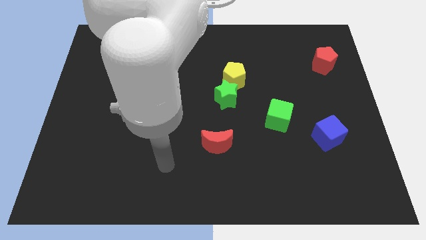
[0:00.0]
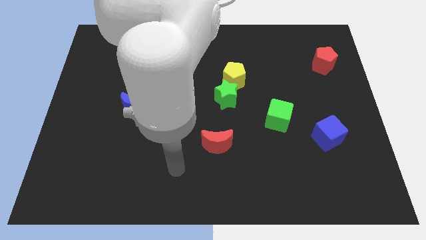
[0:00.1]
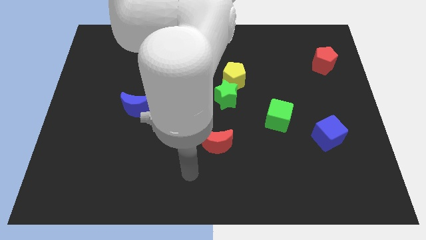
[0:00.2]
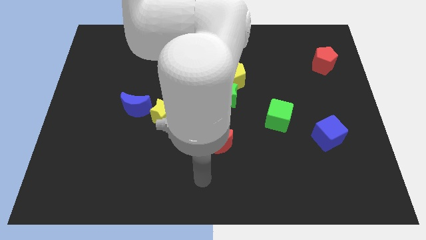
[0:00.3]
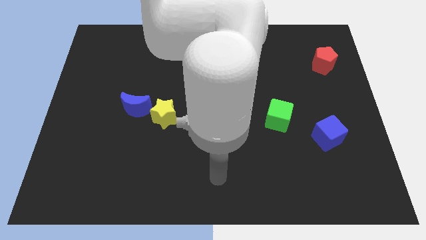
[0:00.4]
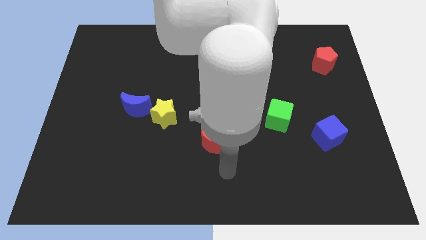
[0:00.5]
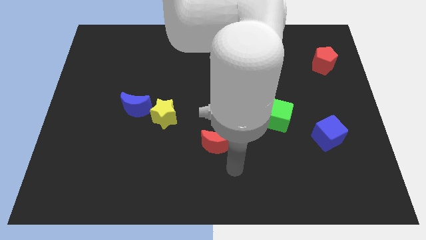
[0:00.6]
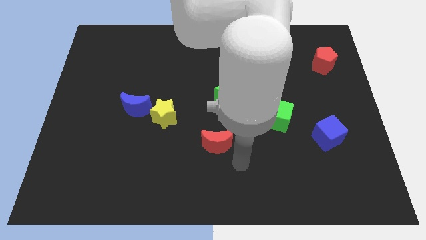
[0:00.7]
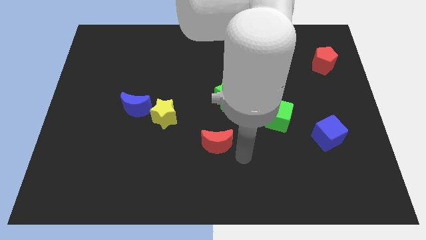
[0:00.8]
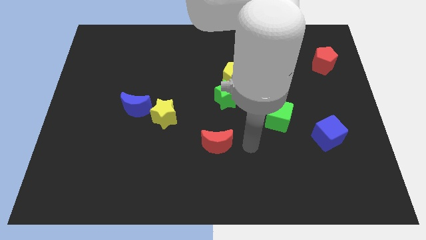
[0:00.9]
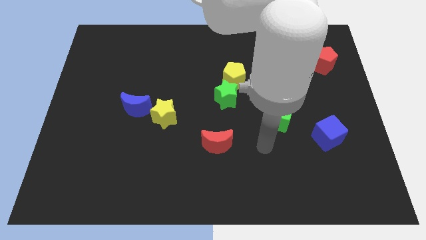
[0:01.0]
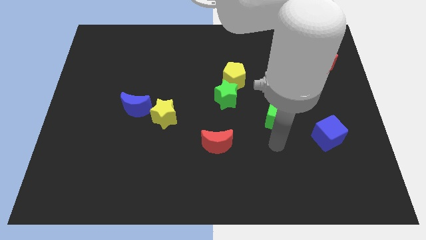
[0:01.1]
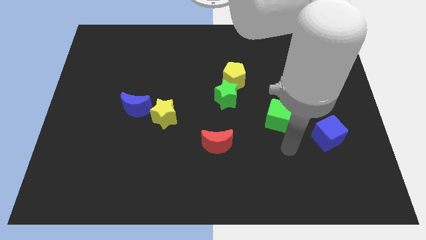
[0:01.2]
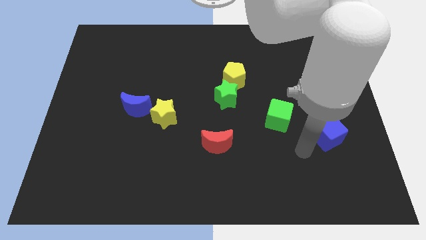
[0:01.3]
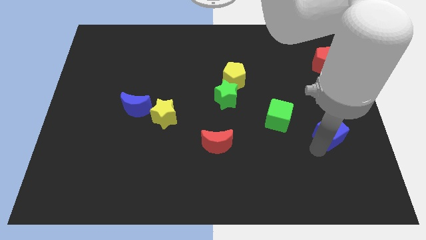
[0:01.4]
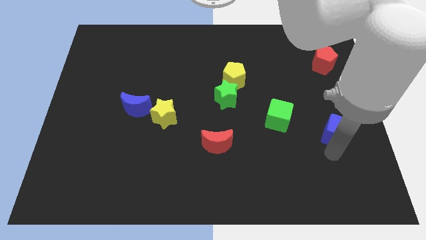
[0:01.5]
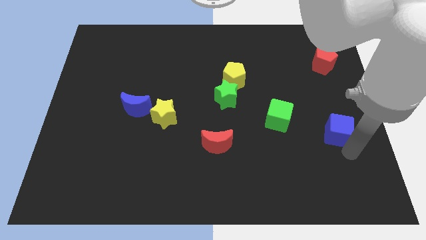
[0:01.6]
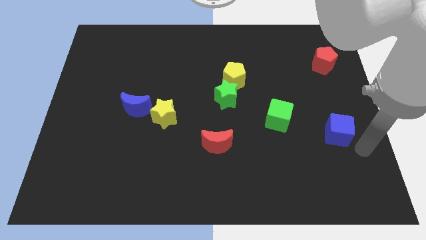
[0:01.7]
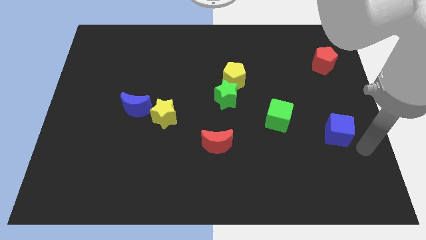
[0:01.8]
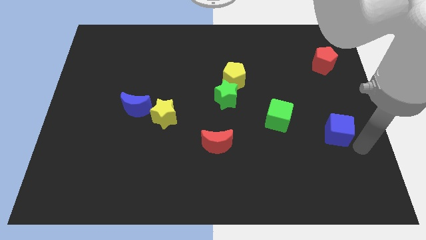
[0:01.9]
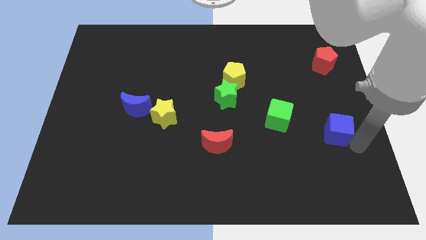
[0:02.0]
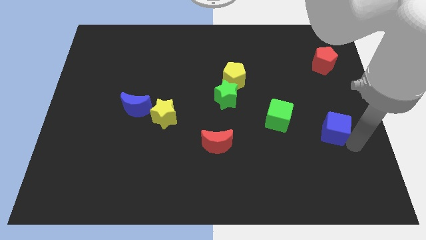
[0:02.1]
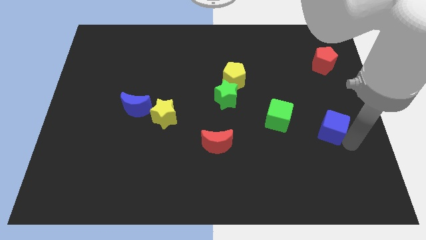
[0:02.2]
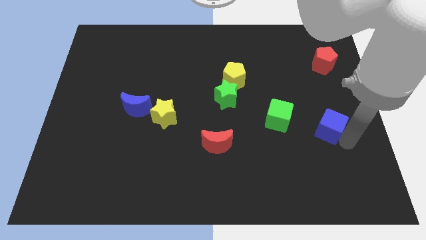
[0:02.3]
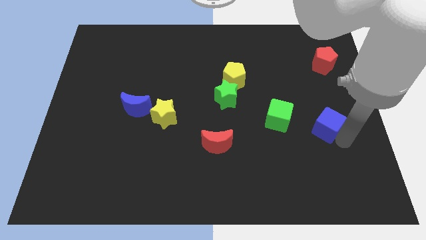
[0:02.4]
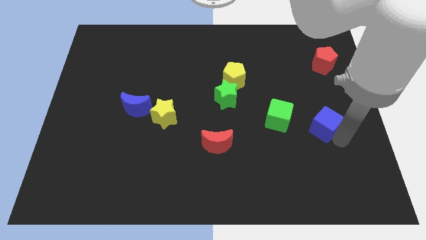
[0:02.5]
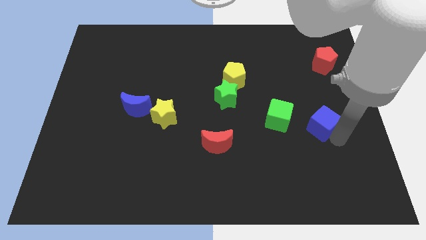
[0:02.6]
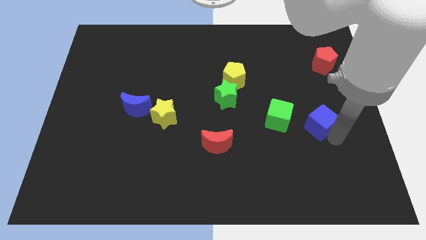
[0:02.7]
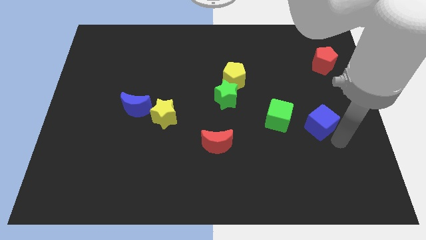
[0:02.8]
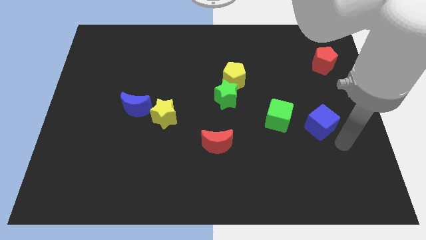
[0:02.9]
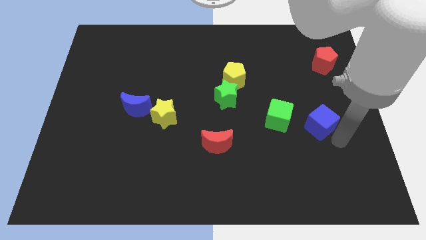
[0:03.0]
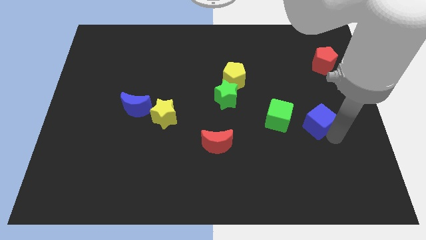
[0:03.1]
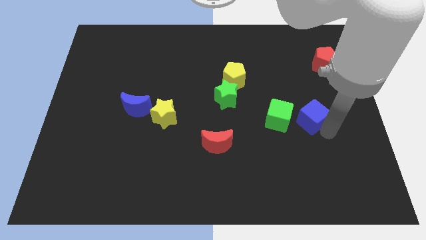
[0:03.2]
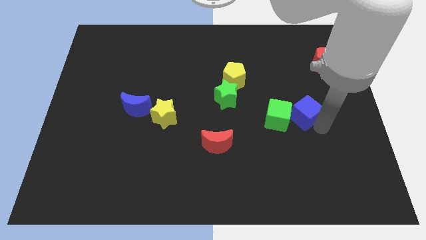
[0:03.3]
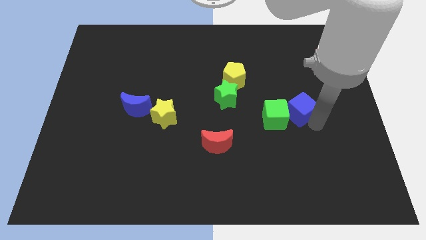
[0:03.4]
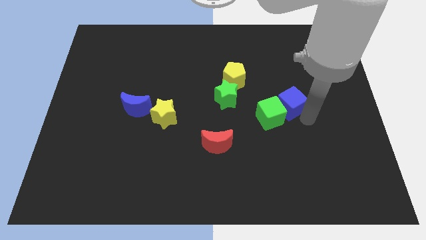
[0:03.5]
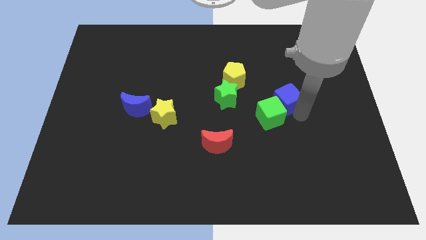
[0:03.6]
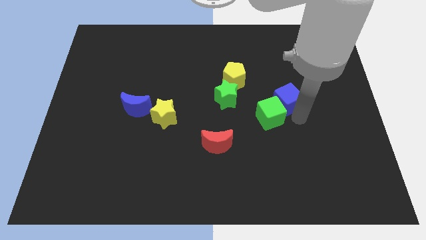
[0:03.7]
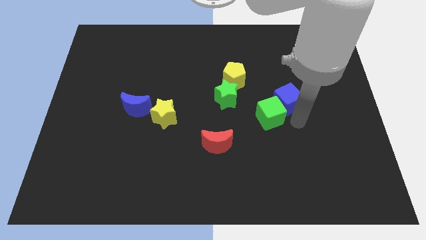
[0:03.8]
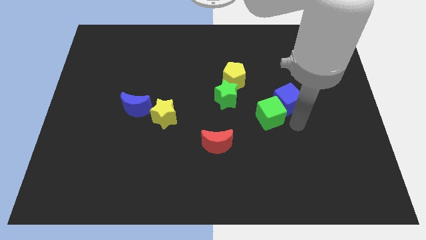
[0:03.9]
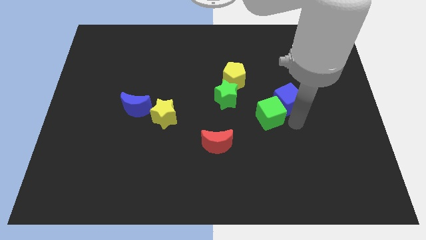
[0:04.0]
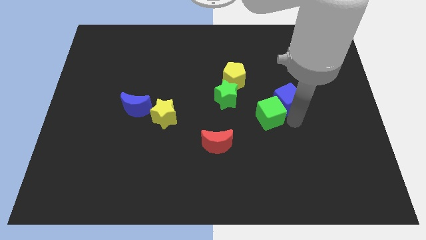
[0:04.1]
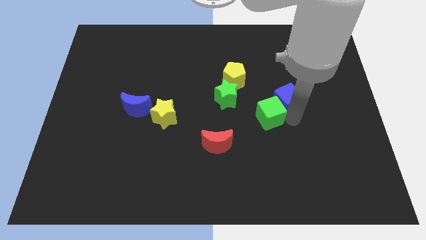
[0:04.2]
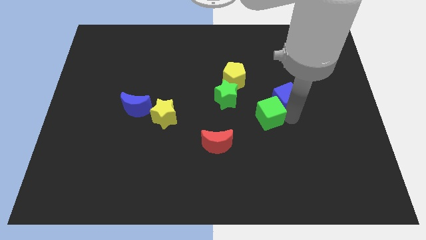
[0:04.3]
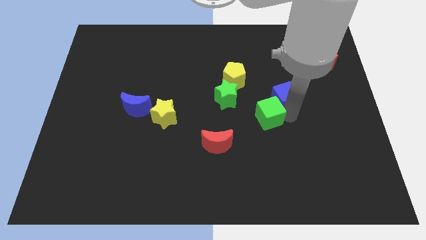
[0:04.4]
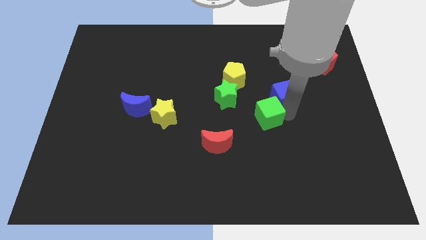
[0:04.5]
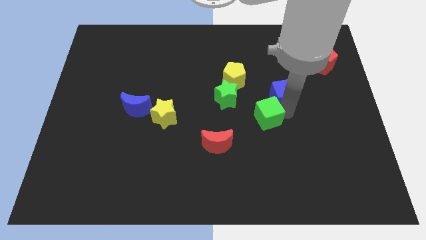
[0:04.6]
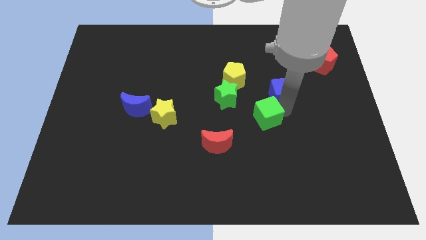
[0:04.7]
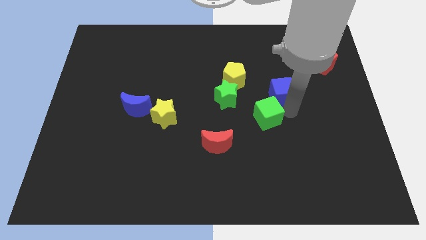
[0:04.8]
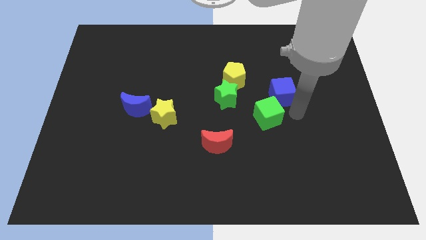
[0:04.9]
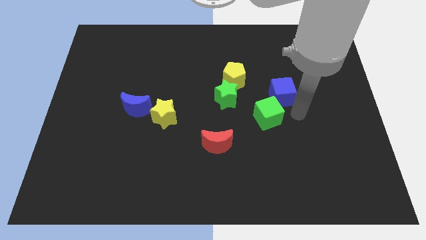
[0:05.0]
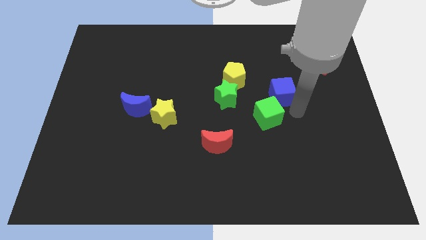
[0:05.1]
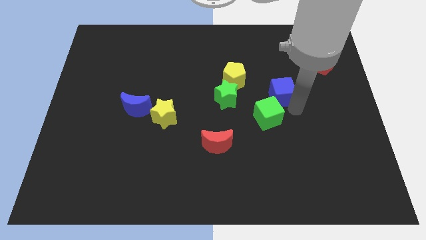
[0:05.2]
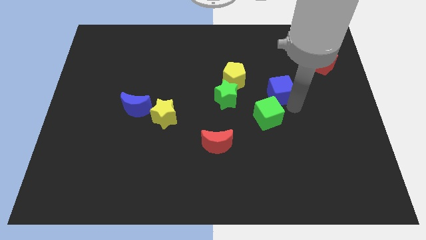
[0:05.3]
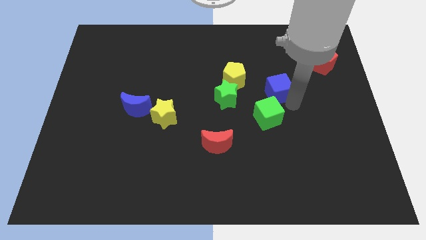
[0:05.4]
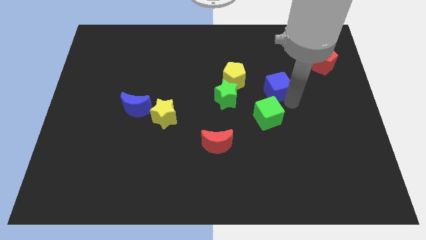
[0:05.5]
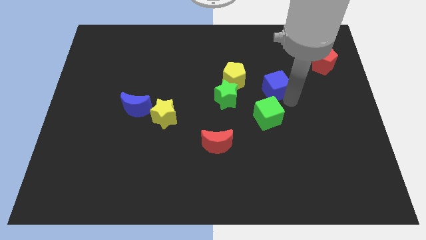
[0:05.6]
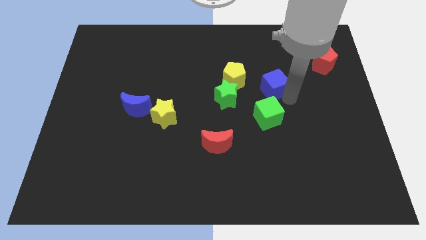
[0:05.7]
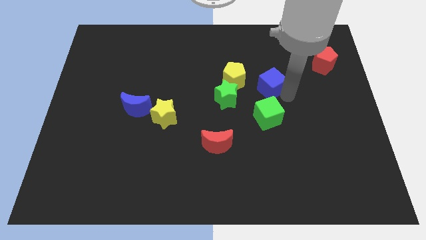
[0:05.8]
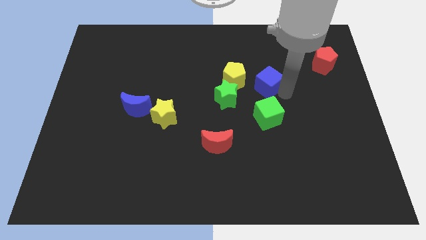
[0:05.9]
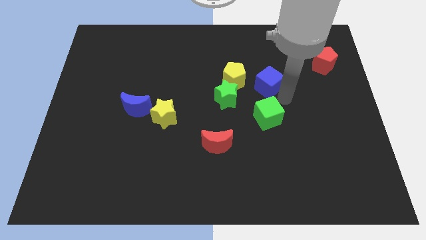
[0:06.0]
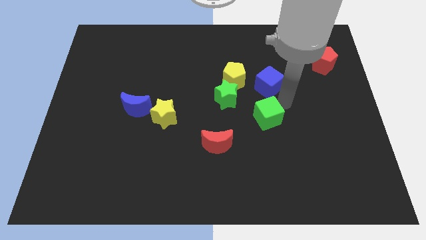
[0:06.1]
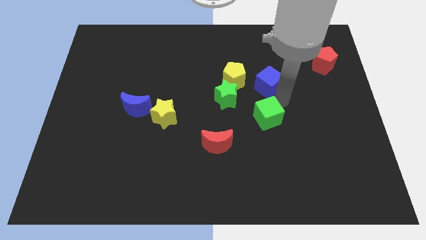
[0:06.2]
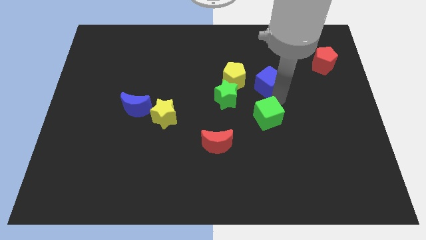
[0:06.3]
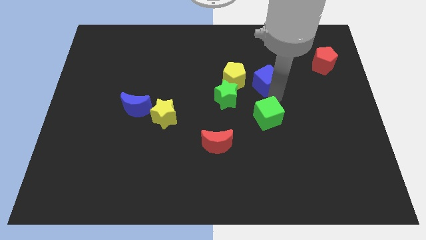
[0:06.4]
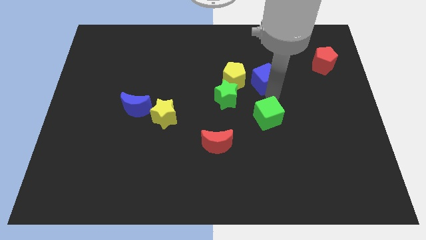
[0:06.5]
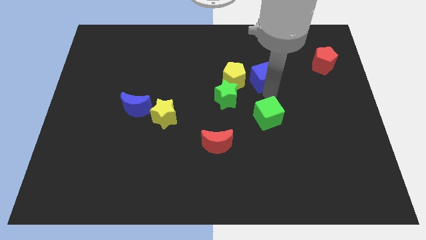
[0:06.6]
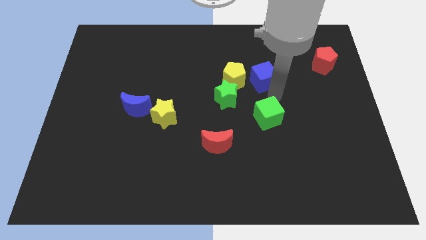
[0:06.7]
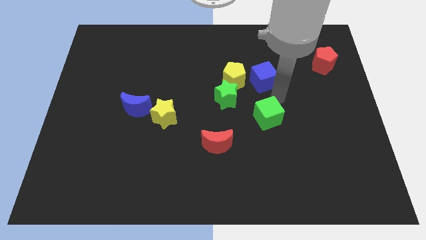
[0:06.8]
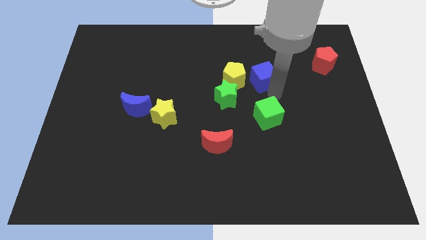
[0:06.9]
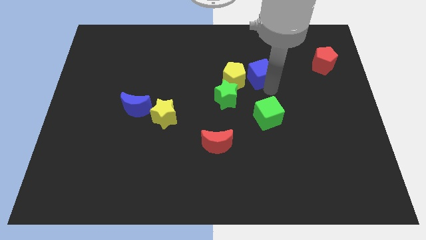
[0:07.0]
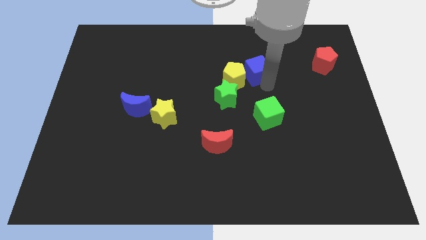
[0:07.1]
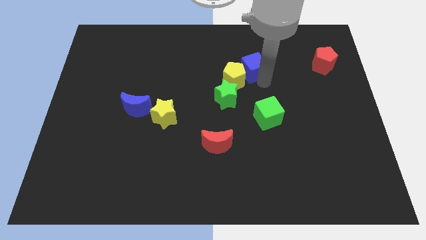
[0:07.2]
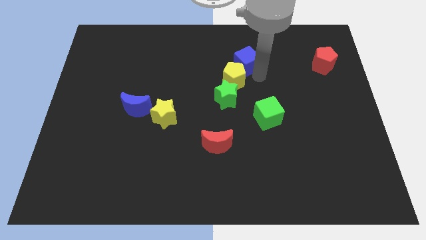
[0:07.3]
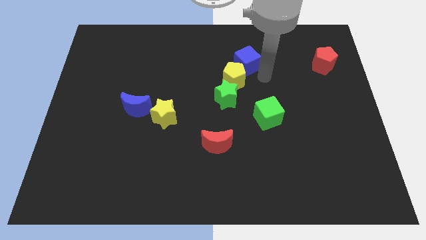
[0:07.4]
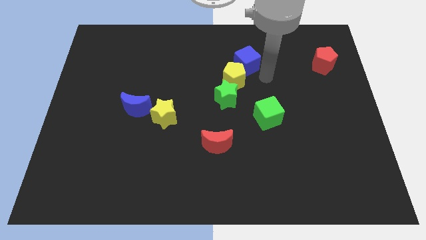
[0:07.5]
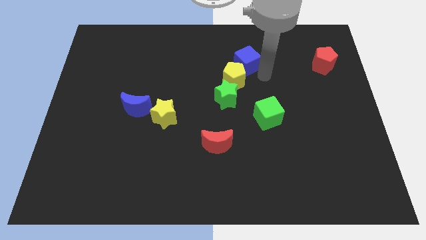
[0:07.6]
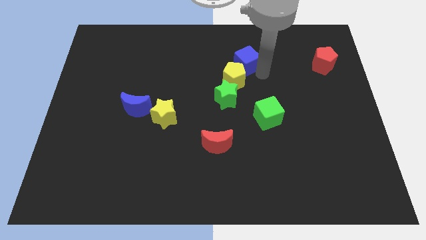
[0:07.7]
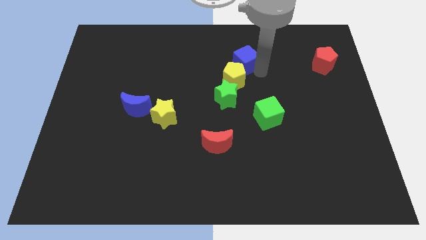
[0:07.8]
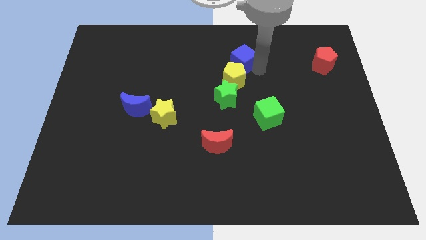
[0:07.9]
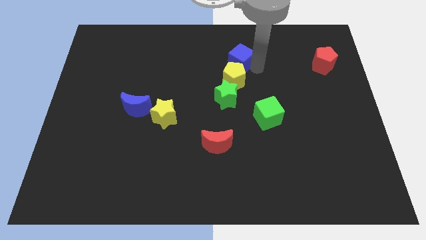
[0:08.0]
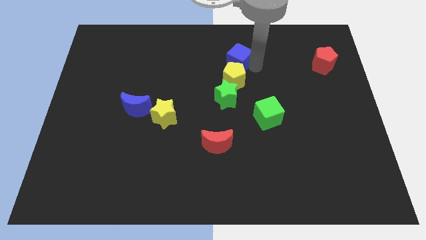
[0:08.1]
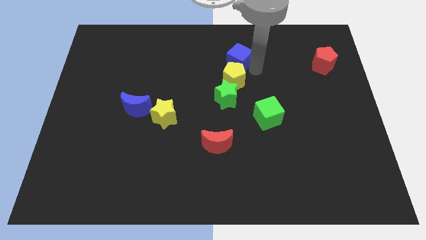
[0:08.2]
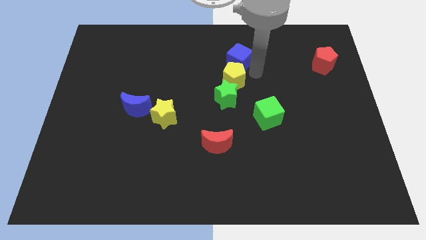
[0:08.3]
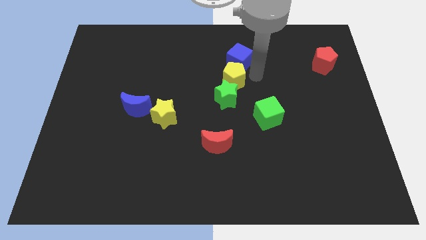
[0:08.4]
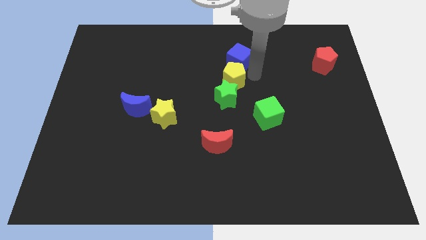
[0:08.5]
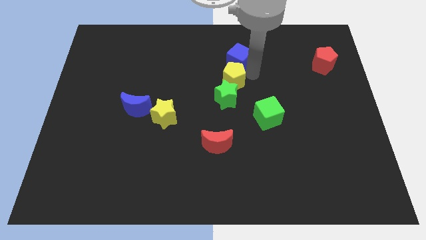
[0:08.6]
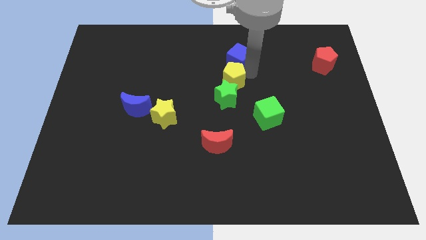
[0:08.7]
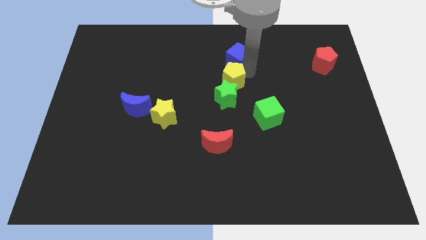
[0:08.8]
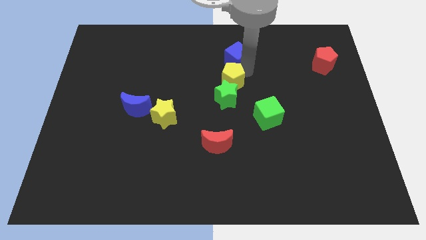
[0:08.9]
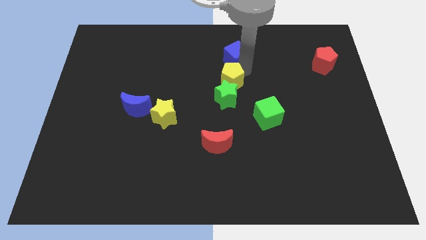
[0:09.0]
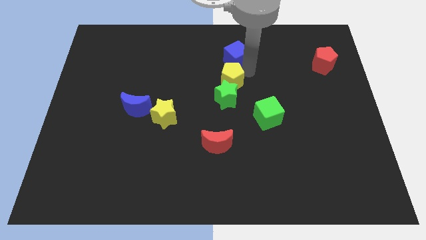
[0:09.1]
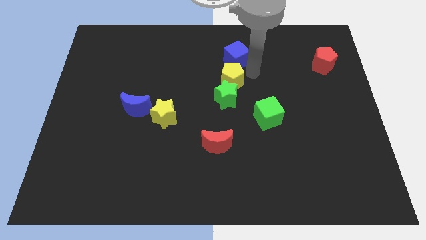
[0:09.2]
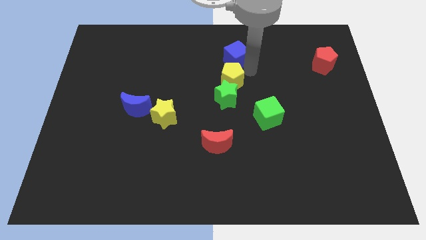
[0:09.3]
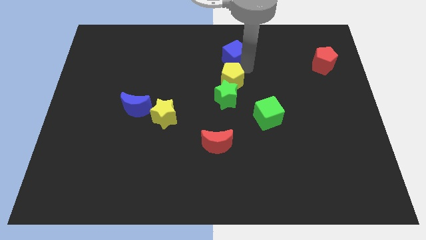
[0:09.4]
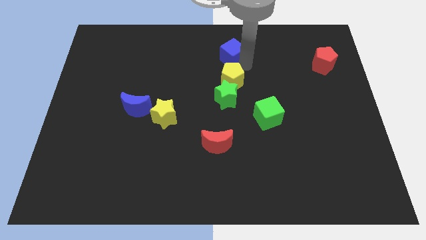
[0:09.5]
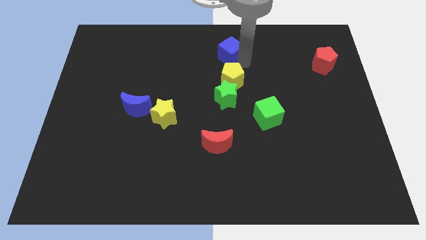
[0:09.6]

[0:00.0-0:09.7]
put the blue cube to the top side
